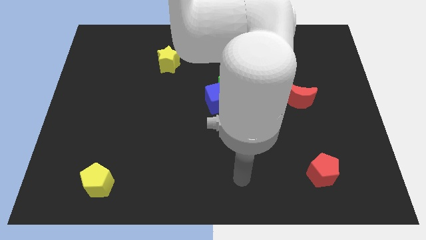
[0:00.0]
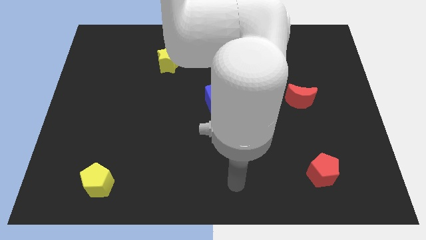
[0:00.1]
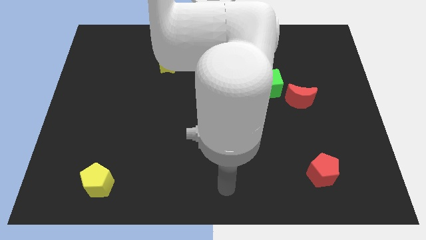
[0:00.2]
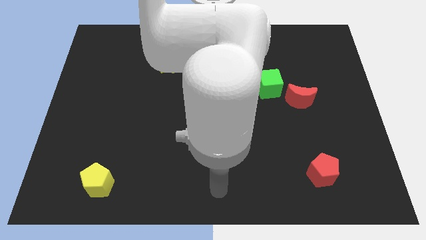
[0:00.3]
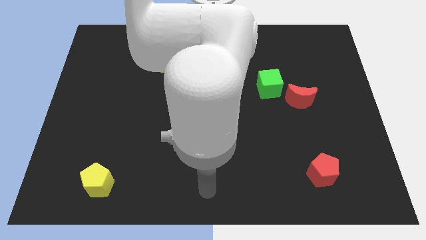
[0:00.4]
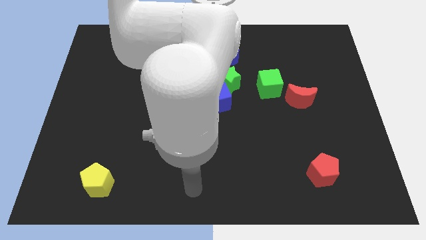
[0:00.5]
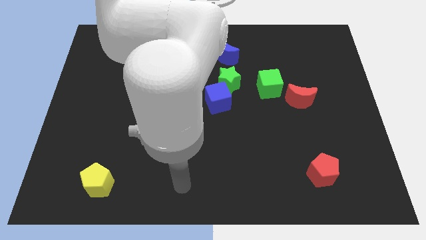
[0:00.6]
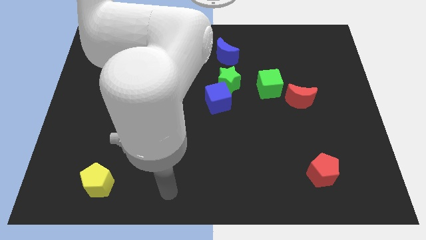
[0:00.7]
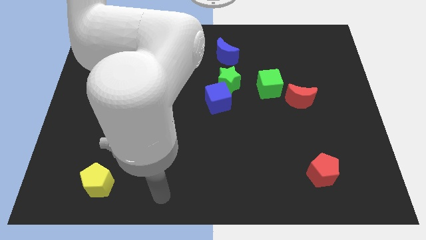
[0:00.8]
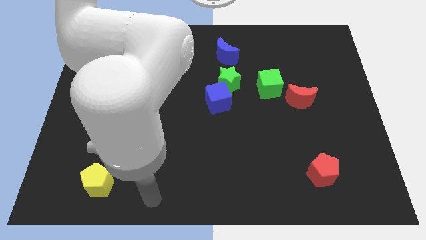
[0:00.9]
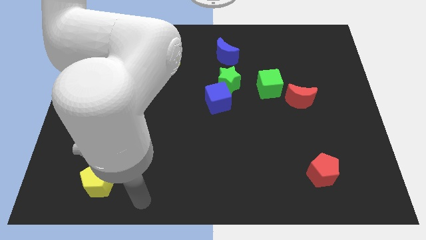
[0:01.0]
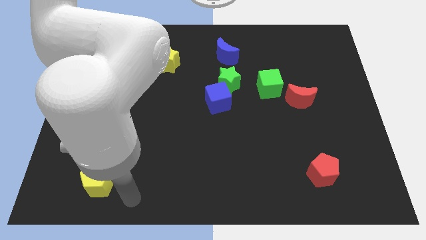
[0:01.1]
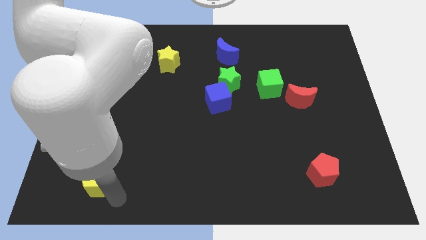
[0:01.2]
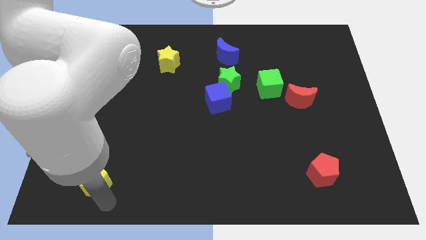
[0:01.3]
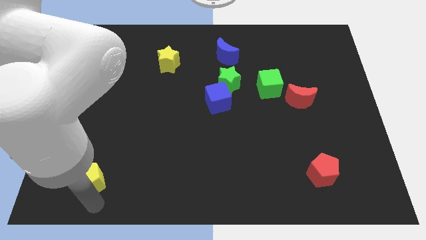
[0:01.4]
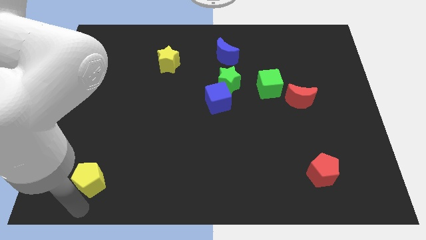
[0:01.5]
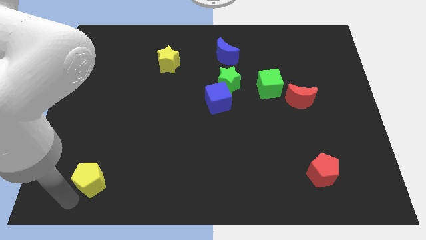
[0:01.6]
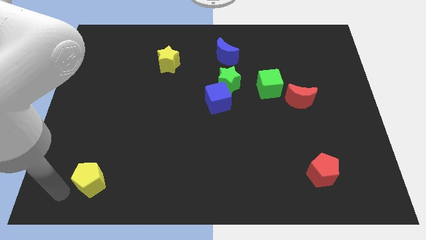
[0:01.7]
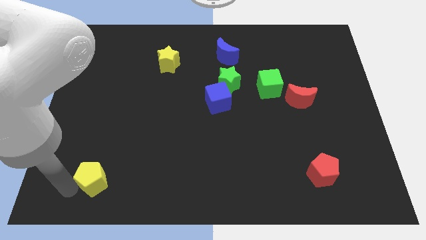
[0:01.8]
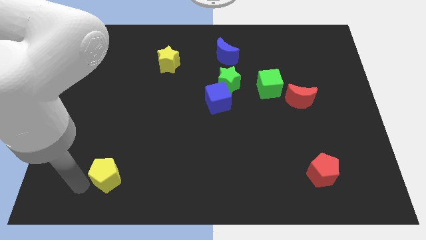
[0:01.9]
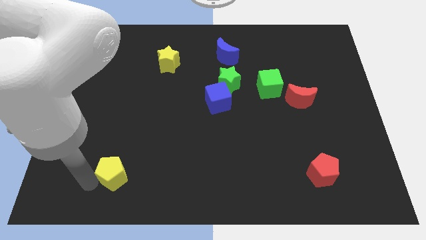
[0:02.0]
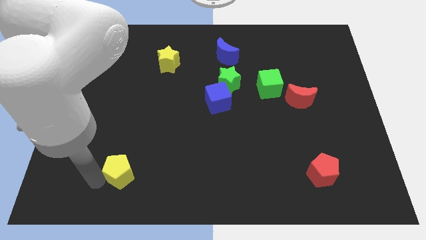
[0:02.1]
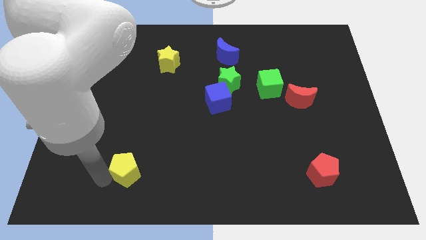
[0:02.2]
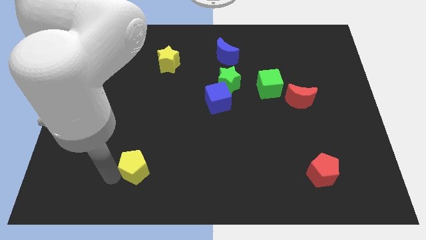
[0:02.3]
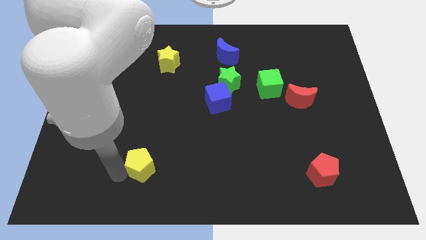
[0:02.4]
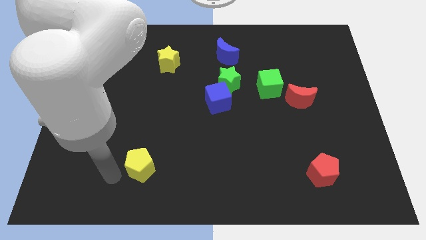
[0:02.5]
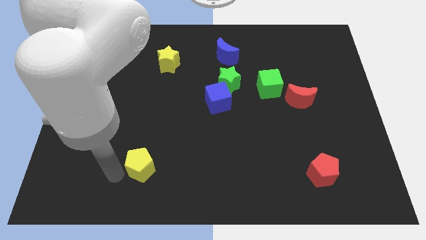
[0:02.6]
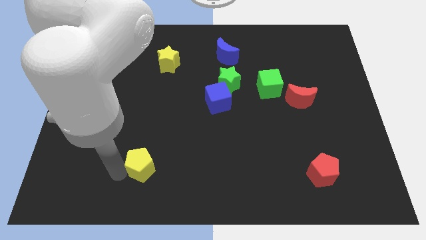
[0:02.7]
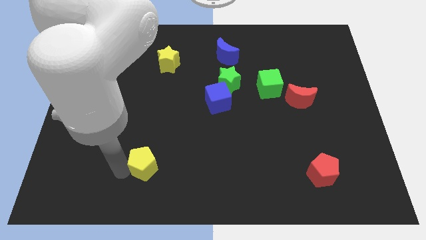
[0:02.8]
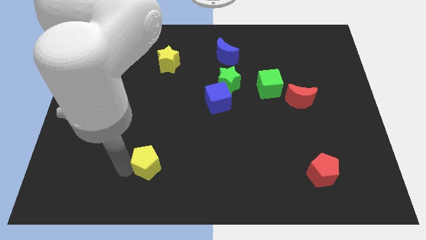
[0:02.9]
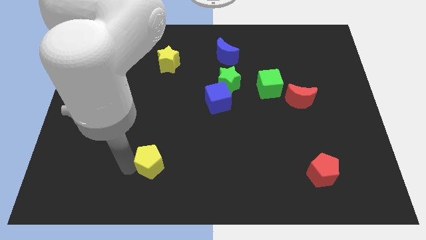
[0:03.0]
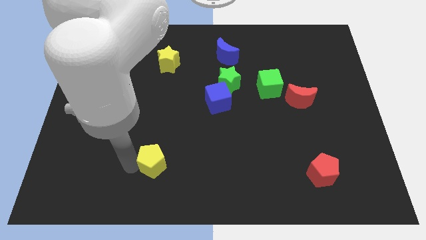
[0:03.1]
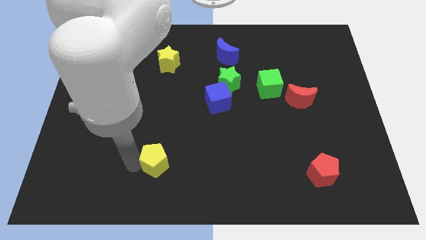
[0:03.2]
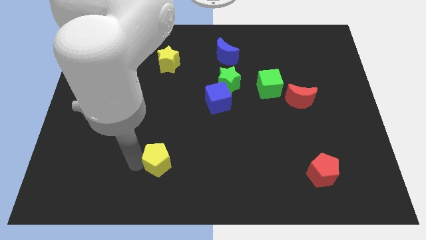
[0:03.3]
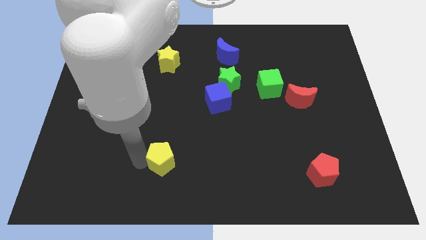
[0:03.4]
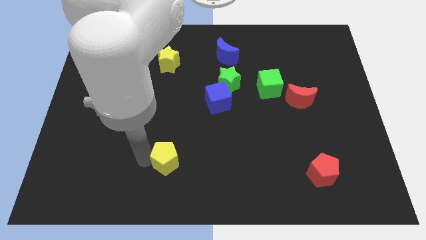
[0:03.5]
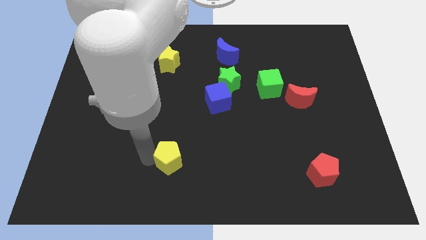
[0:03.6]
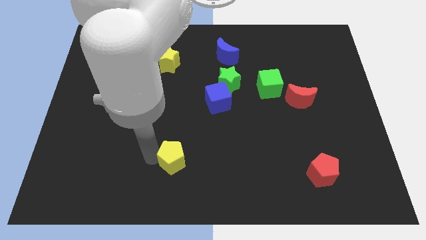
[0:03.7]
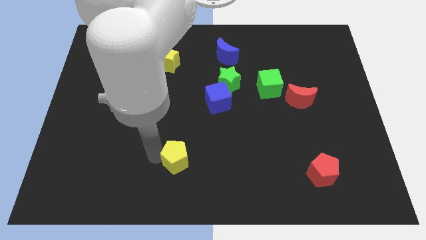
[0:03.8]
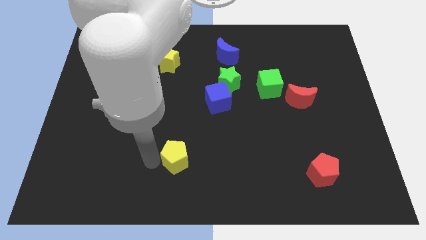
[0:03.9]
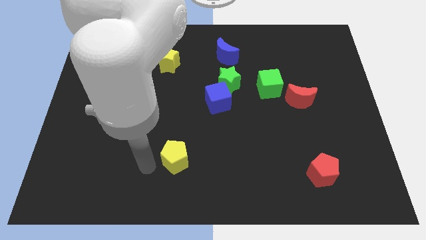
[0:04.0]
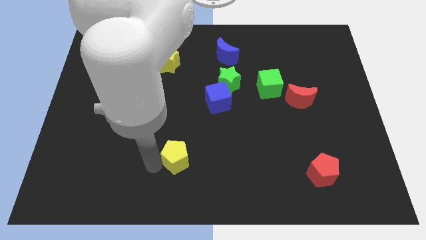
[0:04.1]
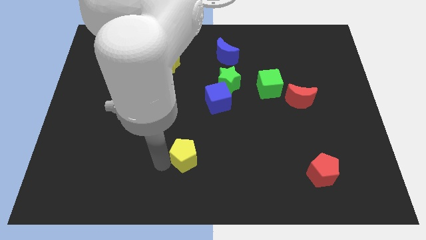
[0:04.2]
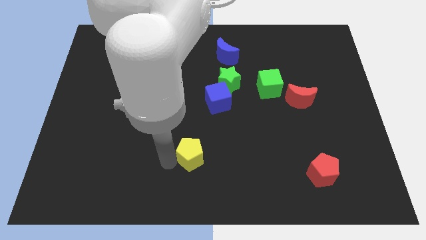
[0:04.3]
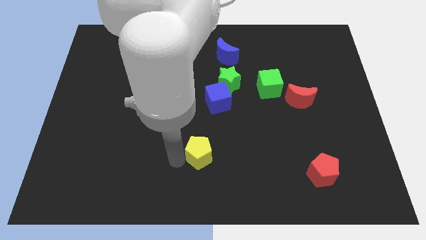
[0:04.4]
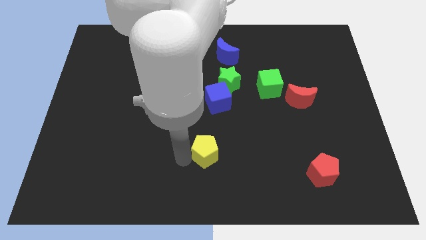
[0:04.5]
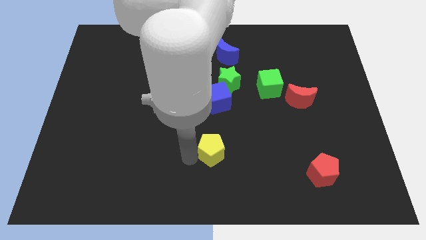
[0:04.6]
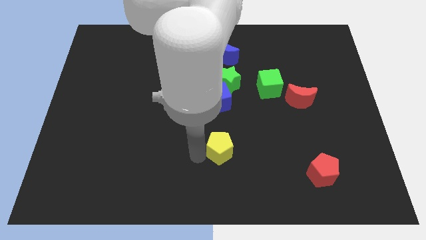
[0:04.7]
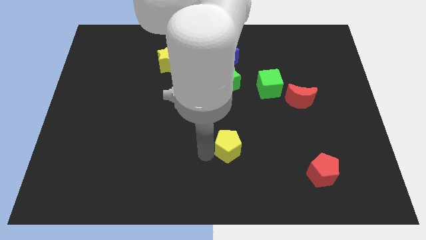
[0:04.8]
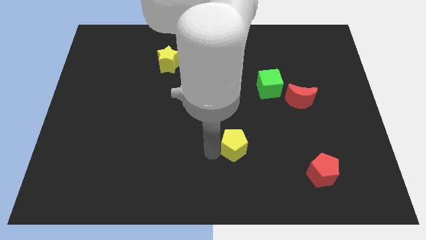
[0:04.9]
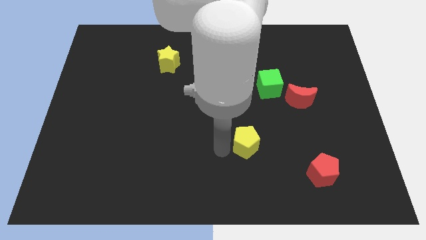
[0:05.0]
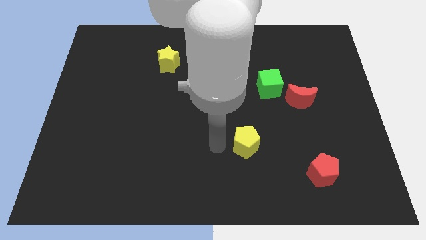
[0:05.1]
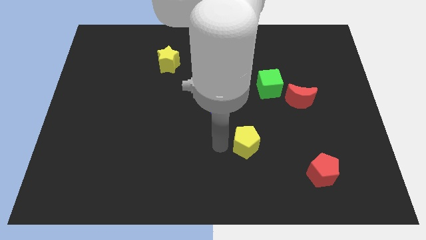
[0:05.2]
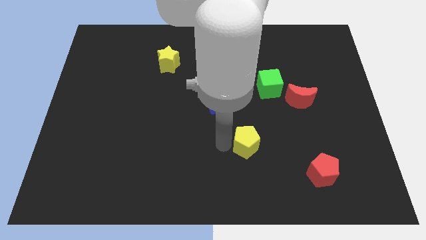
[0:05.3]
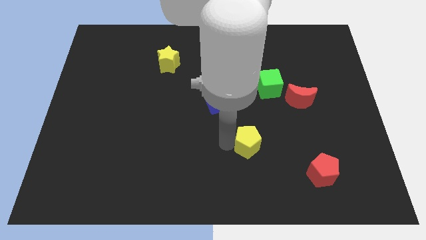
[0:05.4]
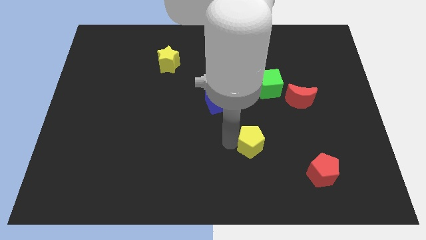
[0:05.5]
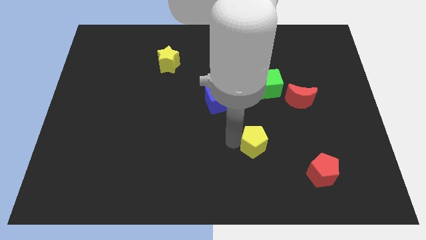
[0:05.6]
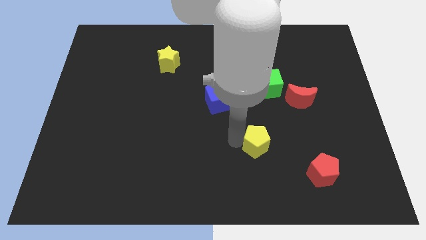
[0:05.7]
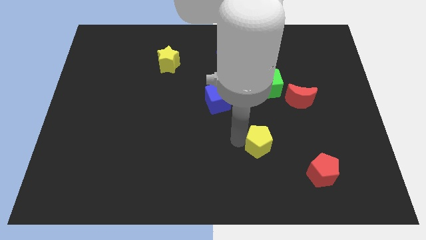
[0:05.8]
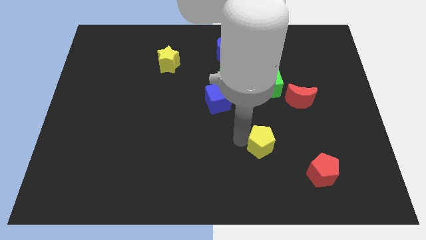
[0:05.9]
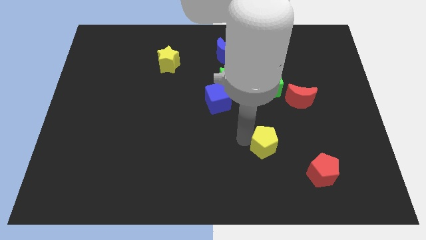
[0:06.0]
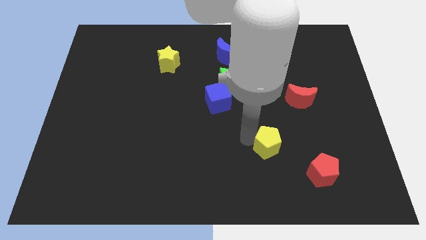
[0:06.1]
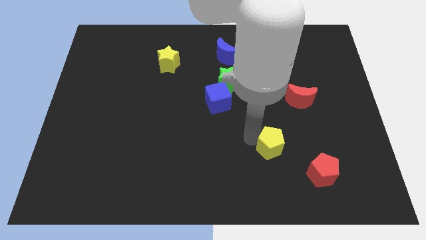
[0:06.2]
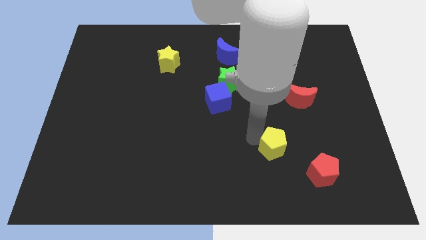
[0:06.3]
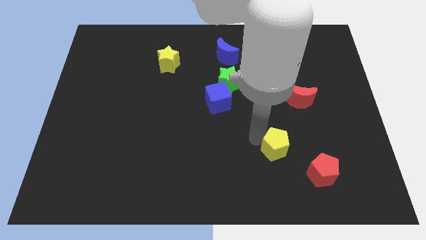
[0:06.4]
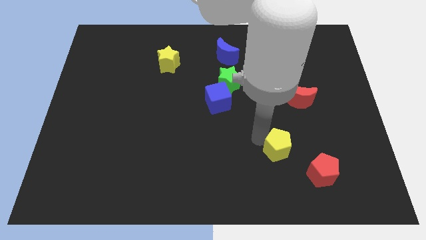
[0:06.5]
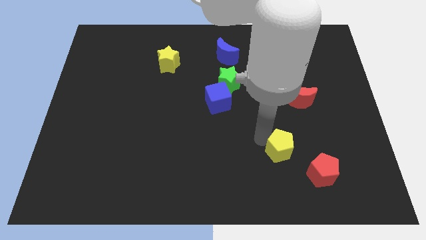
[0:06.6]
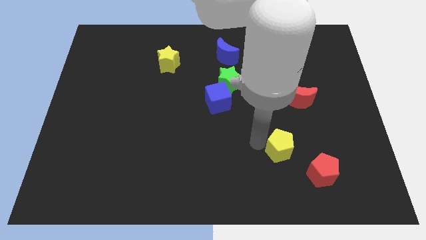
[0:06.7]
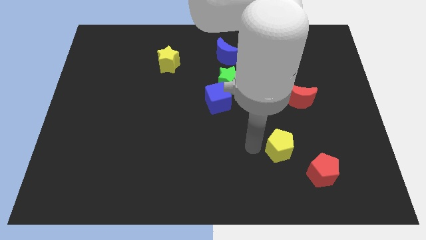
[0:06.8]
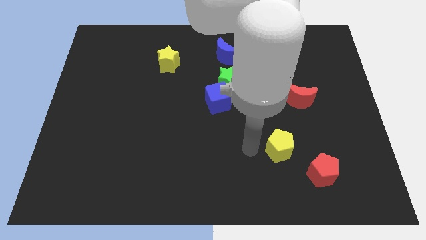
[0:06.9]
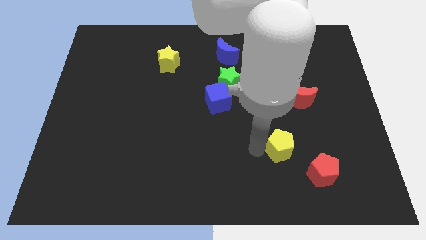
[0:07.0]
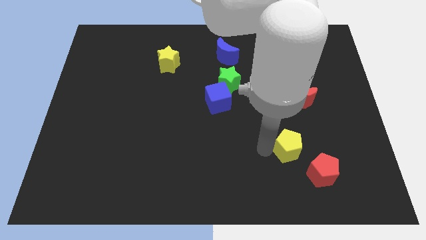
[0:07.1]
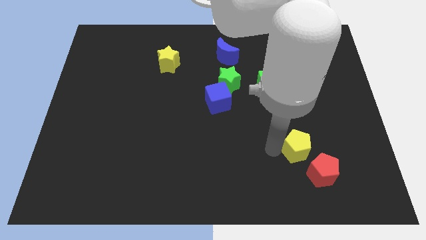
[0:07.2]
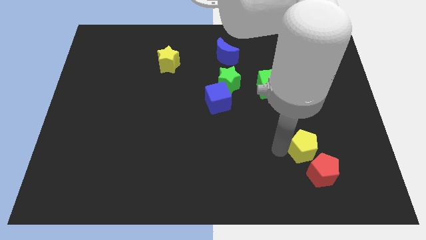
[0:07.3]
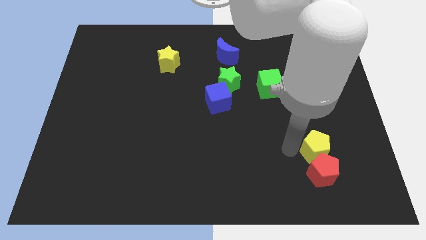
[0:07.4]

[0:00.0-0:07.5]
put the yellow pentagon diagonally up and to the right of the red pentagon
